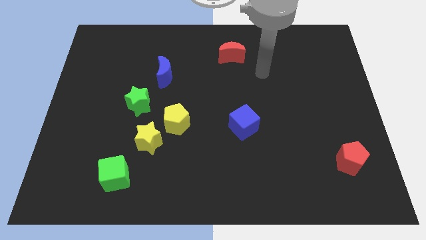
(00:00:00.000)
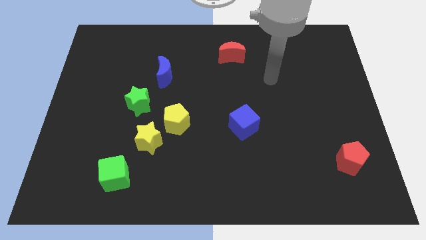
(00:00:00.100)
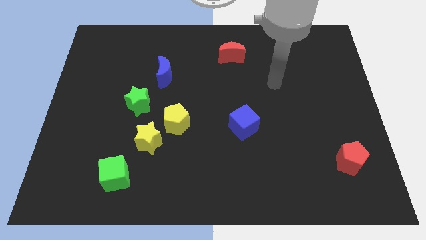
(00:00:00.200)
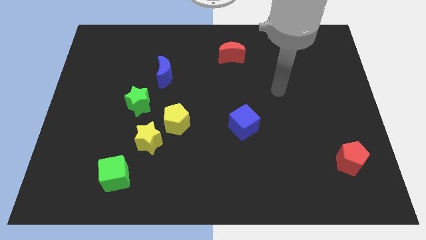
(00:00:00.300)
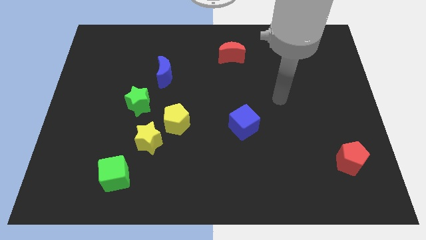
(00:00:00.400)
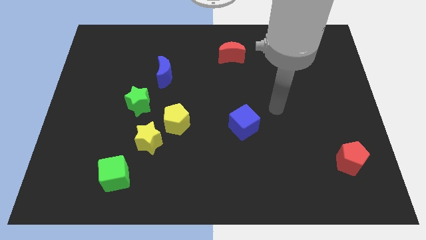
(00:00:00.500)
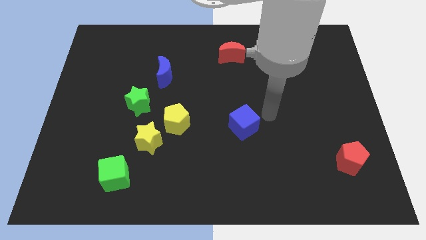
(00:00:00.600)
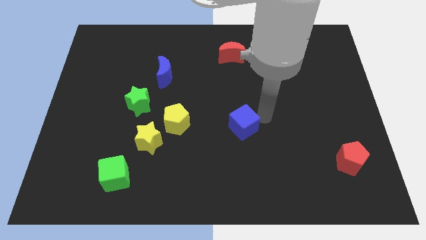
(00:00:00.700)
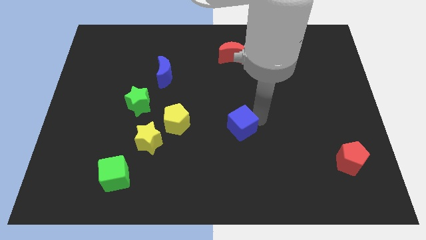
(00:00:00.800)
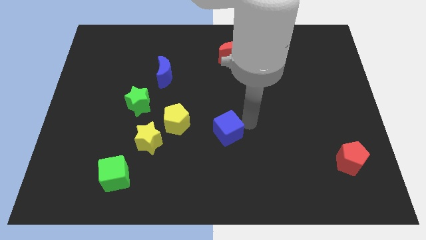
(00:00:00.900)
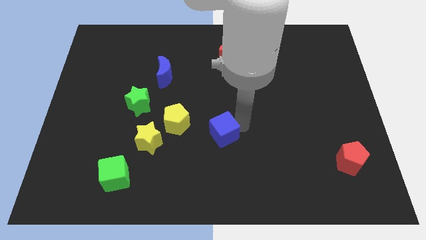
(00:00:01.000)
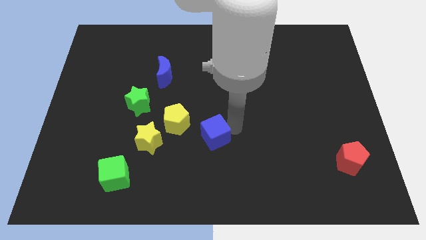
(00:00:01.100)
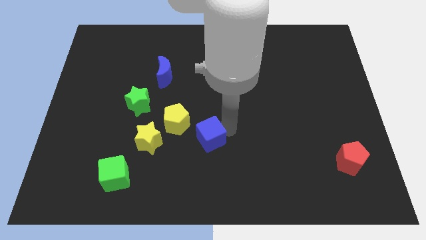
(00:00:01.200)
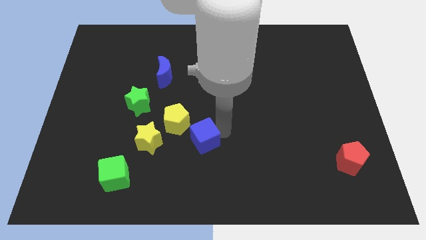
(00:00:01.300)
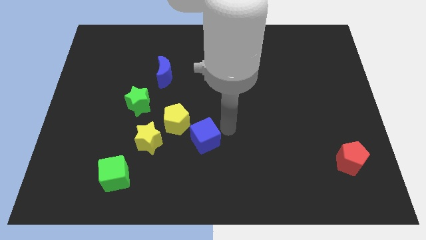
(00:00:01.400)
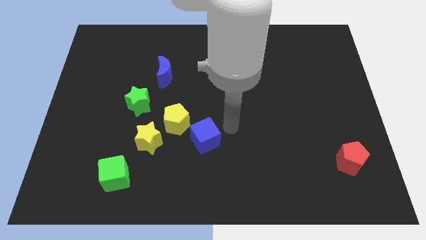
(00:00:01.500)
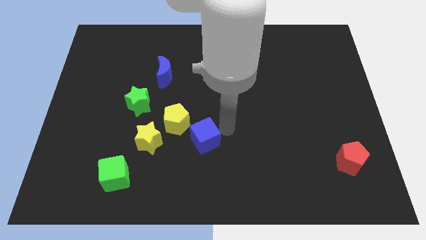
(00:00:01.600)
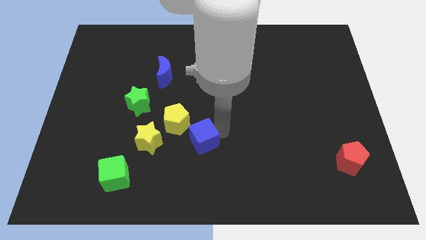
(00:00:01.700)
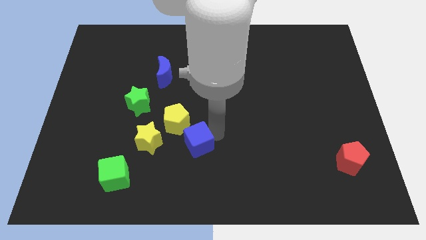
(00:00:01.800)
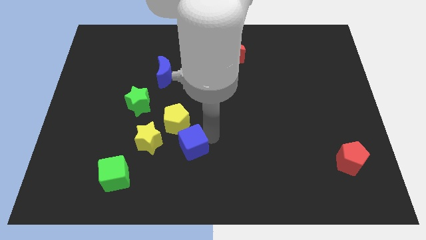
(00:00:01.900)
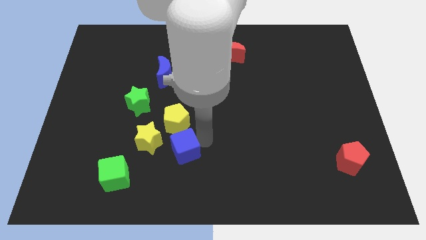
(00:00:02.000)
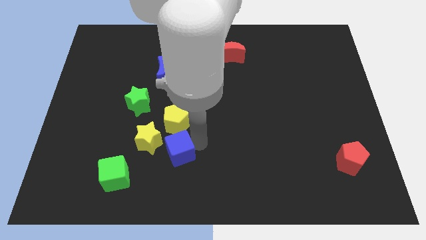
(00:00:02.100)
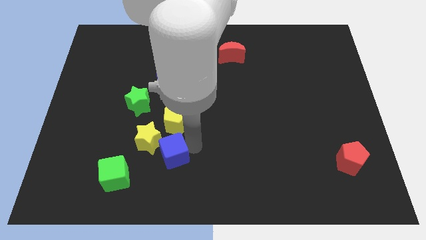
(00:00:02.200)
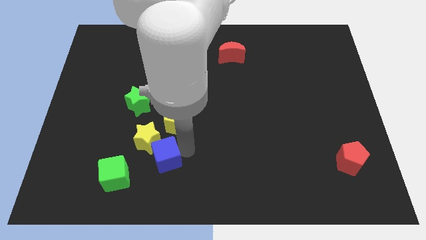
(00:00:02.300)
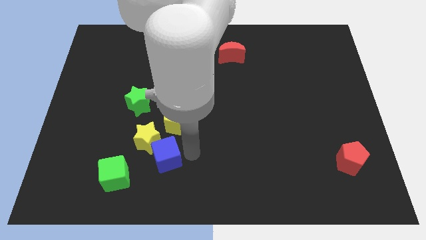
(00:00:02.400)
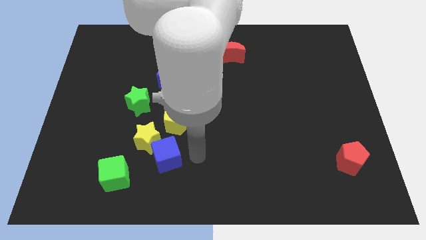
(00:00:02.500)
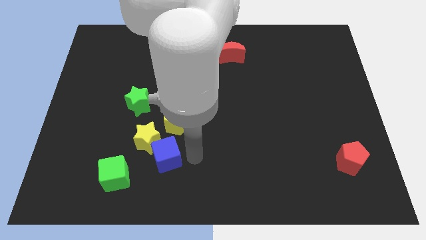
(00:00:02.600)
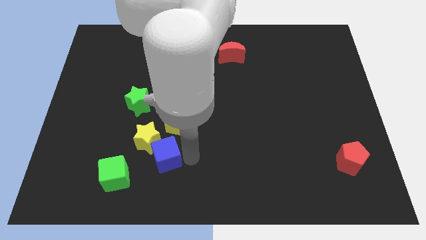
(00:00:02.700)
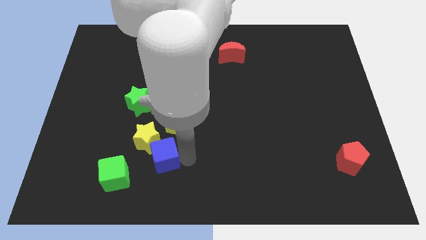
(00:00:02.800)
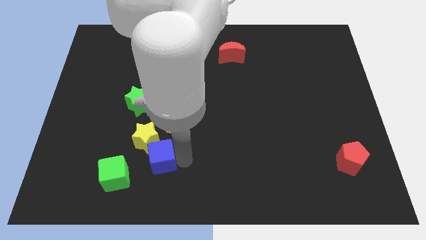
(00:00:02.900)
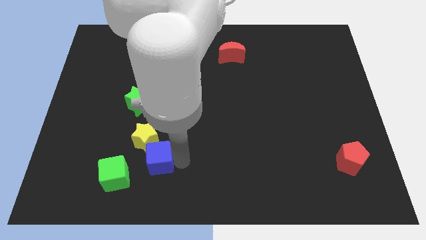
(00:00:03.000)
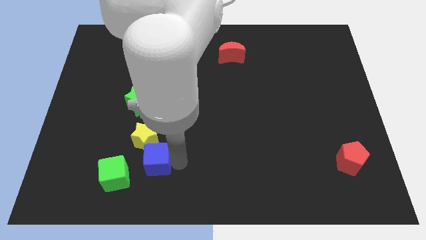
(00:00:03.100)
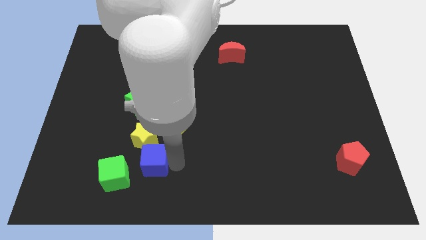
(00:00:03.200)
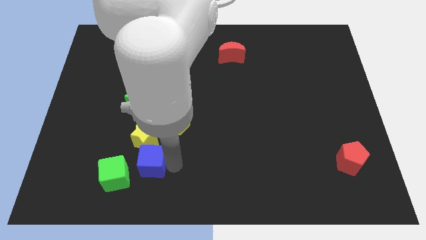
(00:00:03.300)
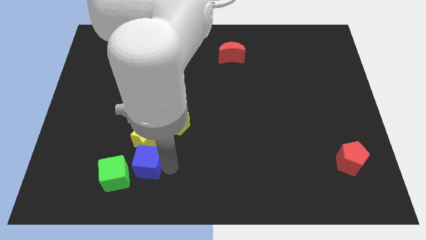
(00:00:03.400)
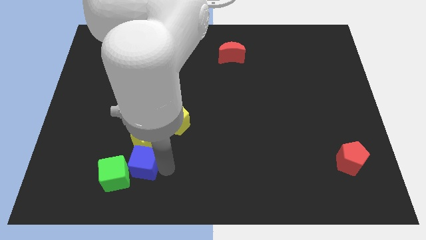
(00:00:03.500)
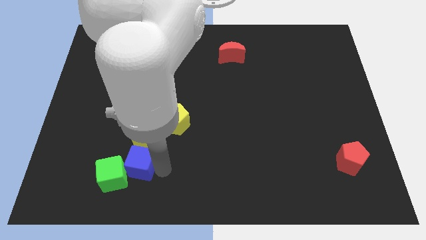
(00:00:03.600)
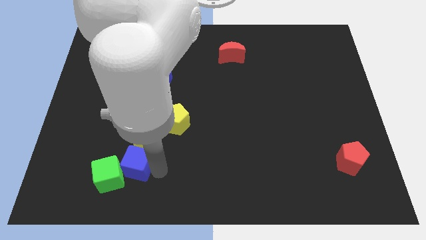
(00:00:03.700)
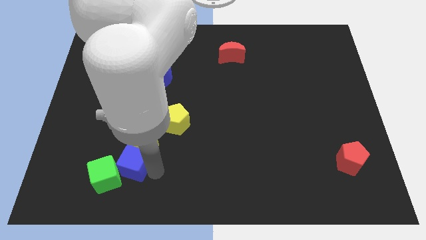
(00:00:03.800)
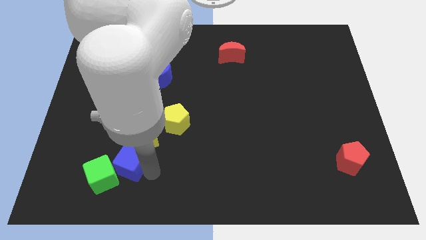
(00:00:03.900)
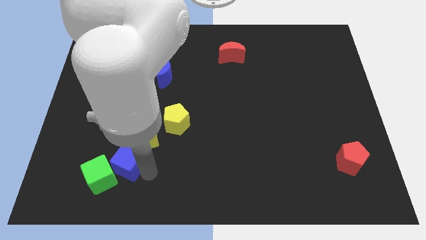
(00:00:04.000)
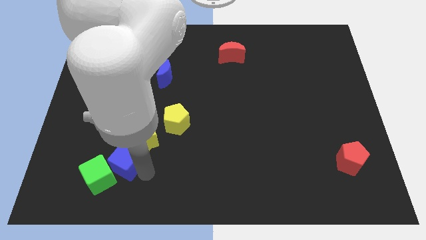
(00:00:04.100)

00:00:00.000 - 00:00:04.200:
slide the blue cube left

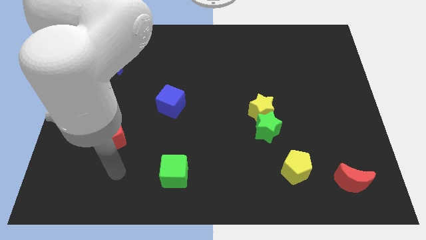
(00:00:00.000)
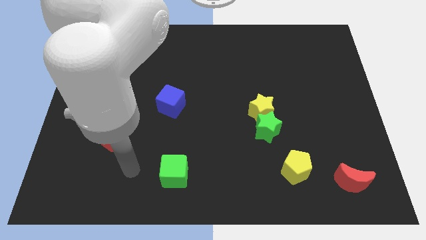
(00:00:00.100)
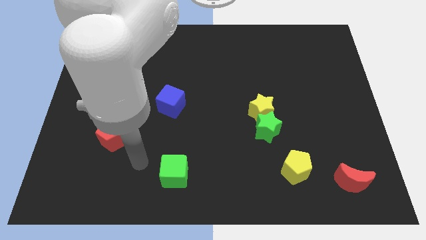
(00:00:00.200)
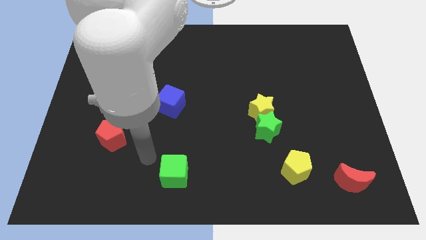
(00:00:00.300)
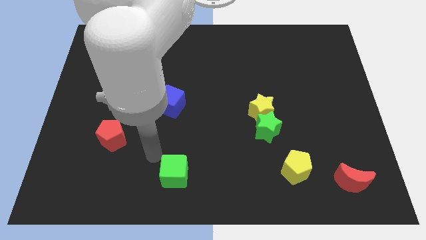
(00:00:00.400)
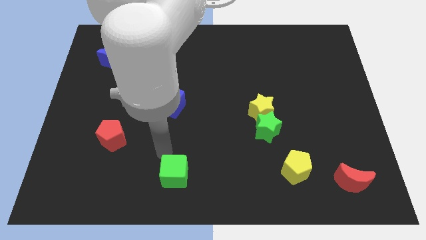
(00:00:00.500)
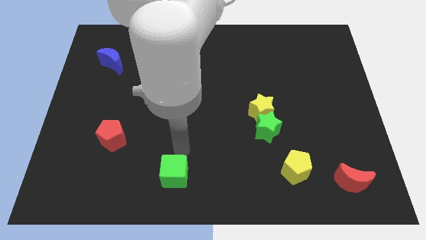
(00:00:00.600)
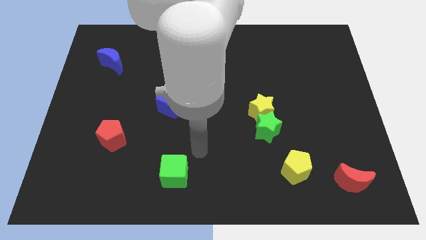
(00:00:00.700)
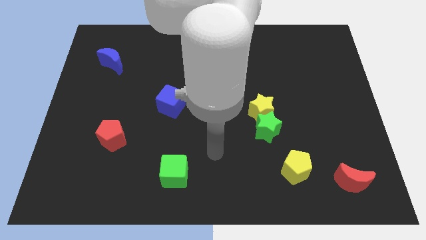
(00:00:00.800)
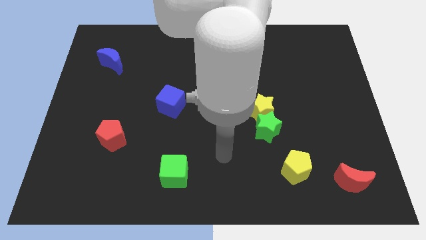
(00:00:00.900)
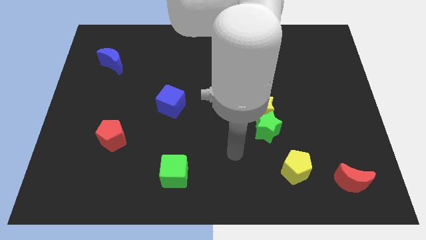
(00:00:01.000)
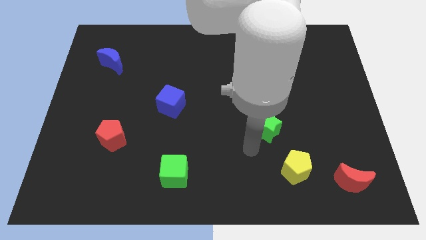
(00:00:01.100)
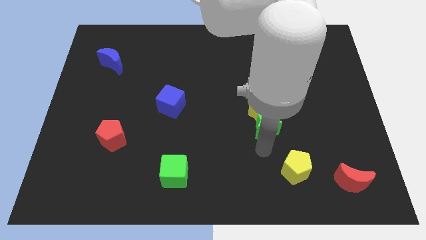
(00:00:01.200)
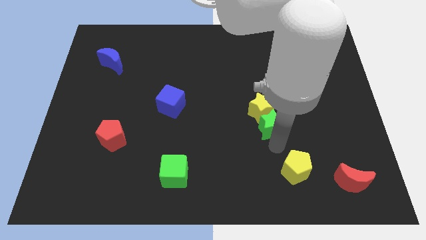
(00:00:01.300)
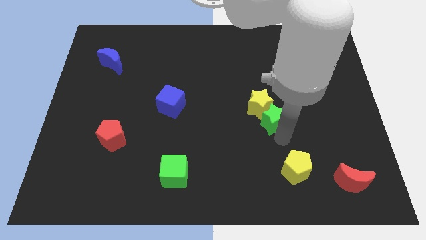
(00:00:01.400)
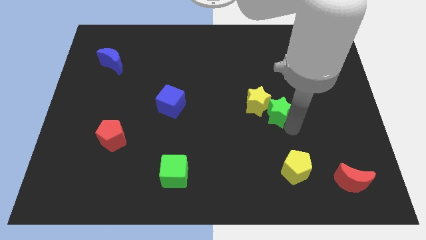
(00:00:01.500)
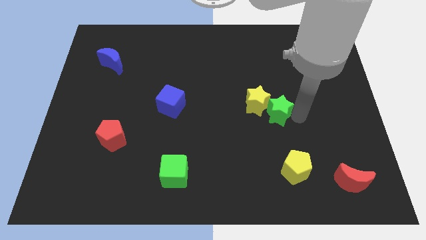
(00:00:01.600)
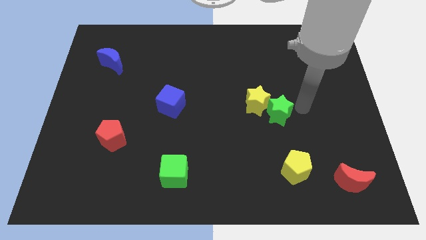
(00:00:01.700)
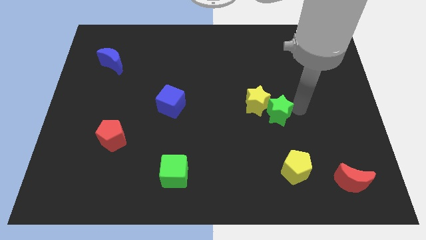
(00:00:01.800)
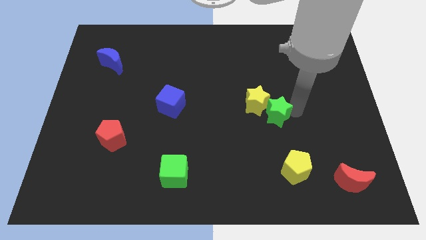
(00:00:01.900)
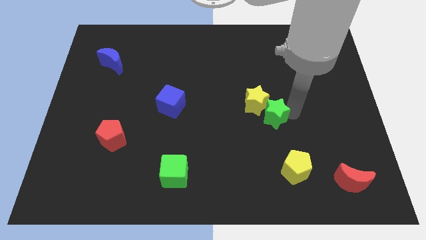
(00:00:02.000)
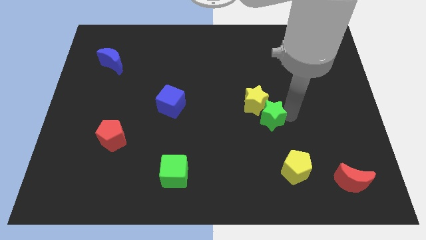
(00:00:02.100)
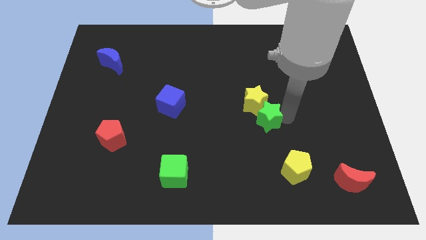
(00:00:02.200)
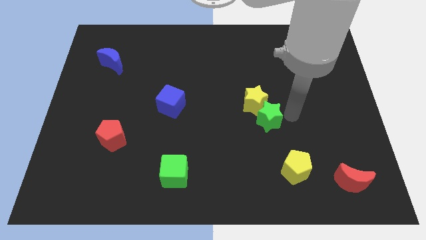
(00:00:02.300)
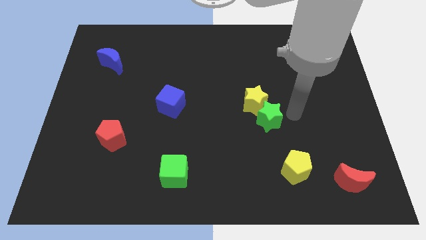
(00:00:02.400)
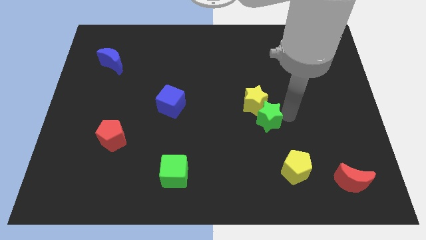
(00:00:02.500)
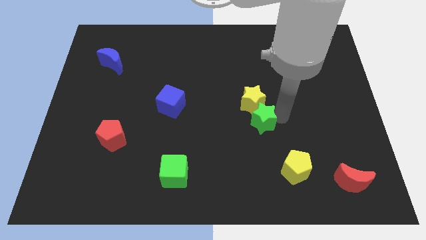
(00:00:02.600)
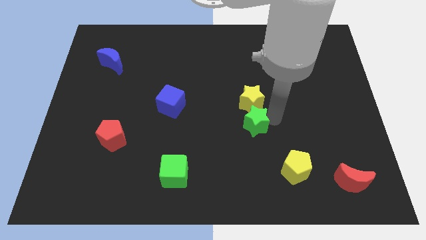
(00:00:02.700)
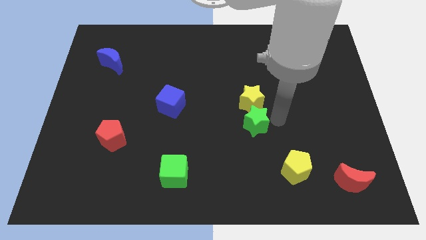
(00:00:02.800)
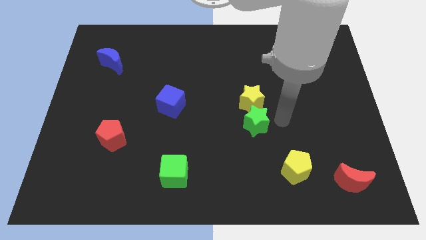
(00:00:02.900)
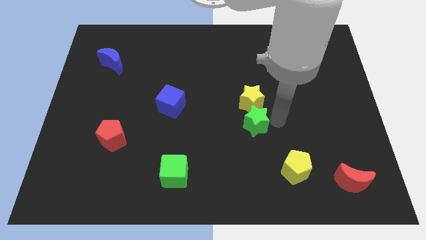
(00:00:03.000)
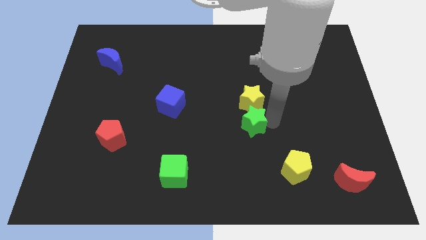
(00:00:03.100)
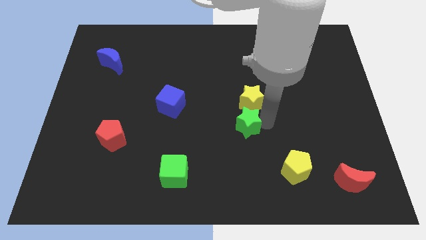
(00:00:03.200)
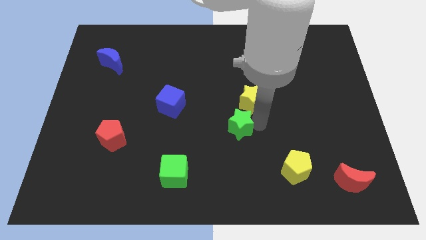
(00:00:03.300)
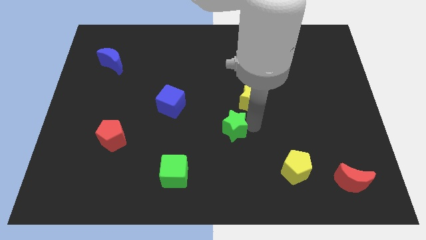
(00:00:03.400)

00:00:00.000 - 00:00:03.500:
push the green star a little bit to the left

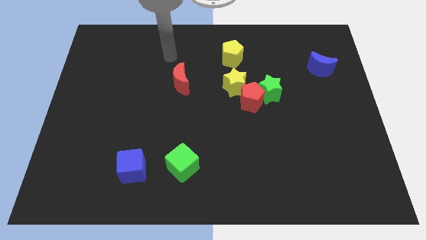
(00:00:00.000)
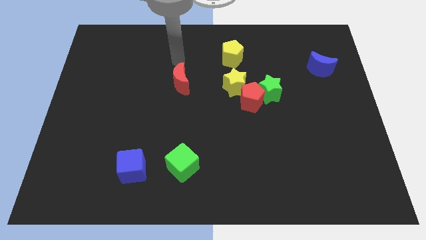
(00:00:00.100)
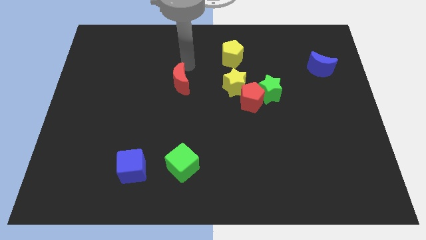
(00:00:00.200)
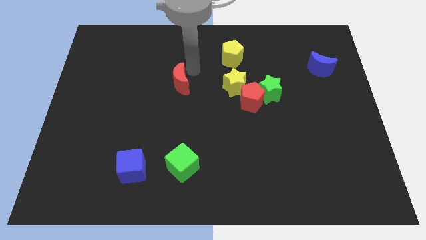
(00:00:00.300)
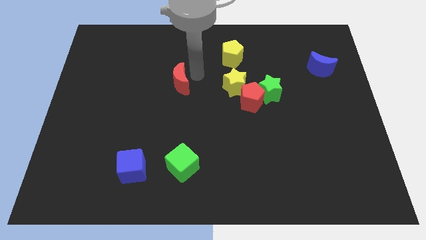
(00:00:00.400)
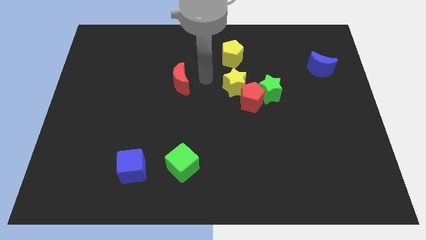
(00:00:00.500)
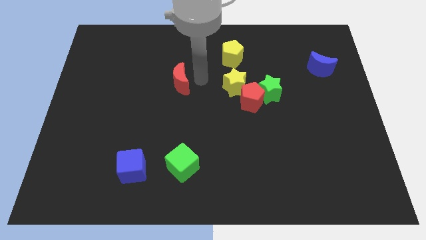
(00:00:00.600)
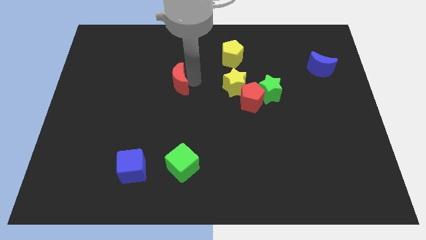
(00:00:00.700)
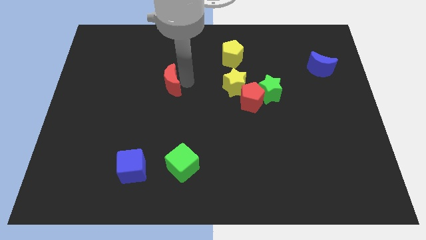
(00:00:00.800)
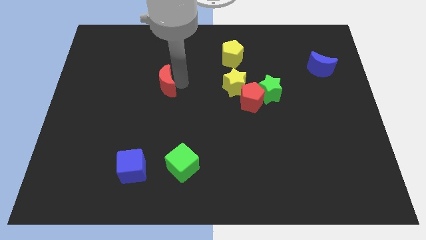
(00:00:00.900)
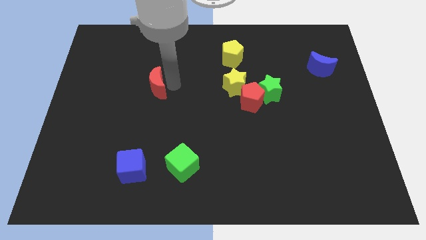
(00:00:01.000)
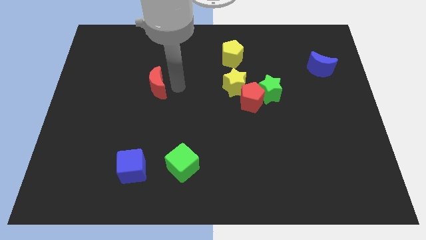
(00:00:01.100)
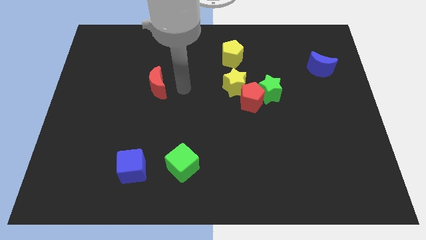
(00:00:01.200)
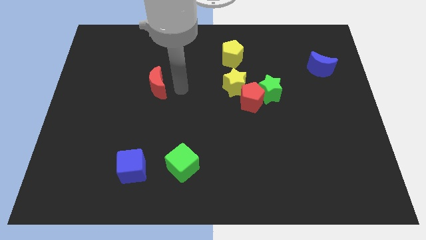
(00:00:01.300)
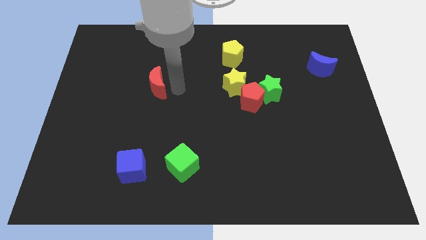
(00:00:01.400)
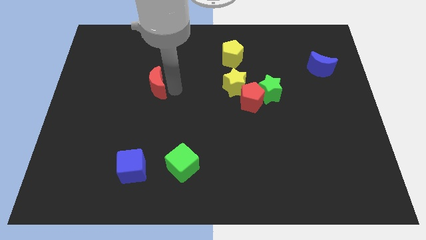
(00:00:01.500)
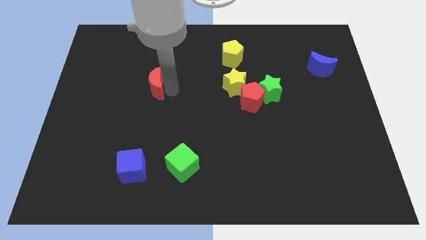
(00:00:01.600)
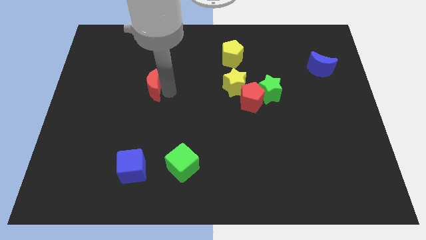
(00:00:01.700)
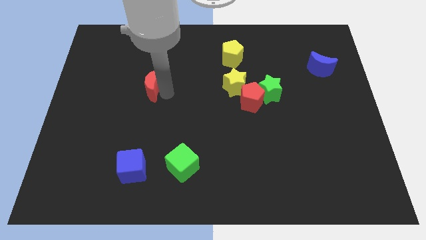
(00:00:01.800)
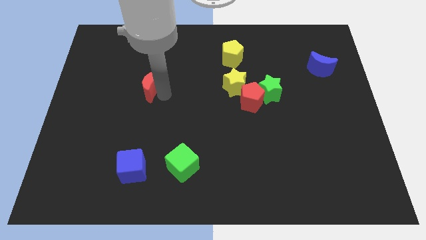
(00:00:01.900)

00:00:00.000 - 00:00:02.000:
push the red moon to the left a little bit
